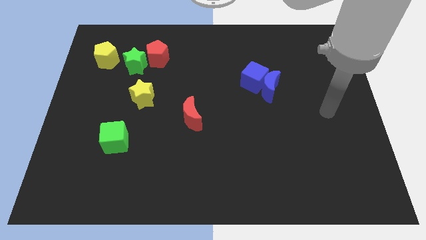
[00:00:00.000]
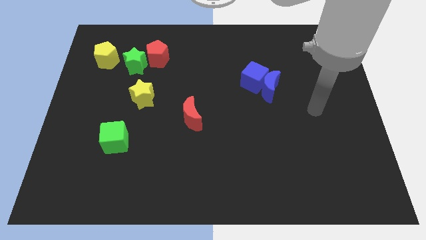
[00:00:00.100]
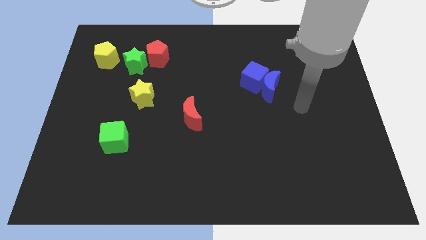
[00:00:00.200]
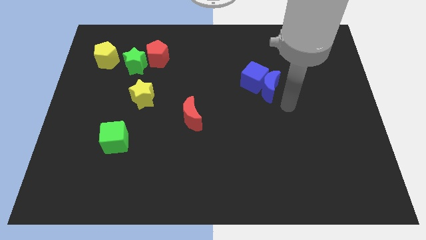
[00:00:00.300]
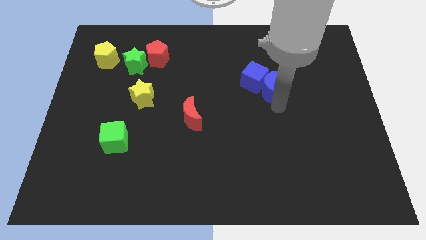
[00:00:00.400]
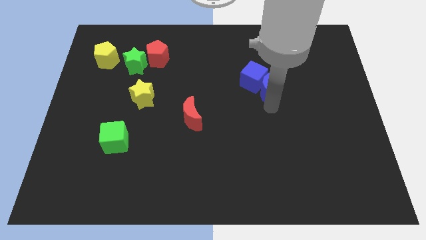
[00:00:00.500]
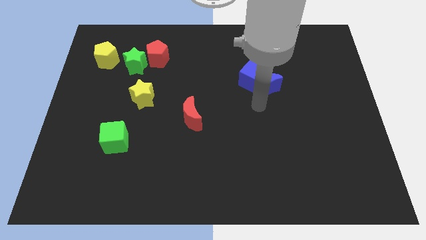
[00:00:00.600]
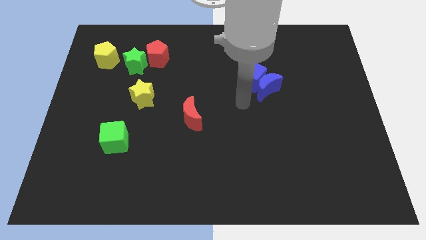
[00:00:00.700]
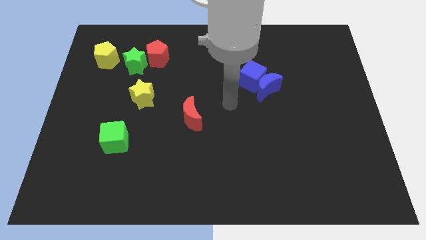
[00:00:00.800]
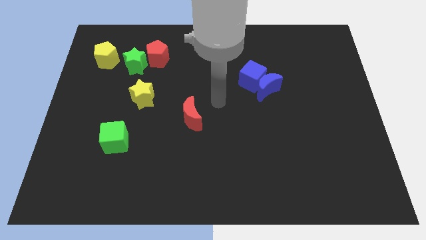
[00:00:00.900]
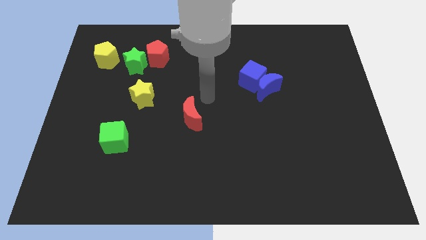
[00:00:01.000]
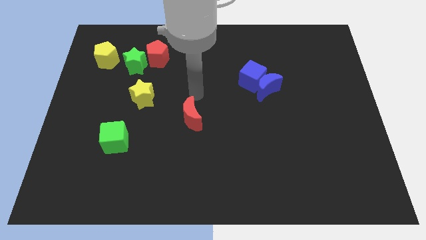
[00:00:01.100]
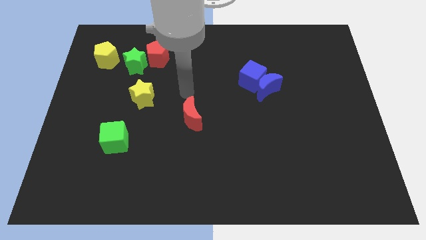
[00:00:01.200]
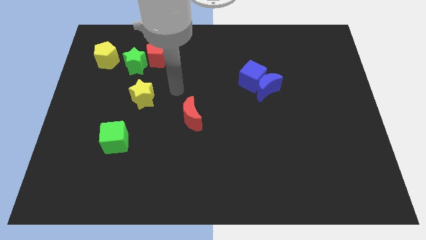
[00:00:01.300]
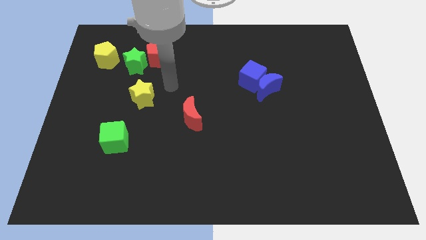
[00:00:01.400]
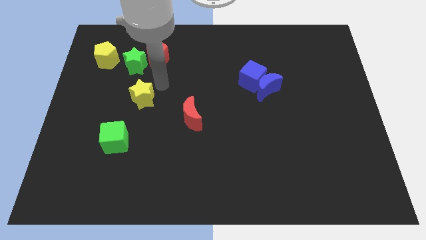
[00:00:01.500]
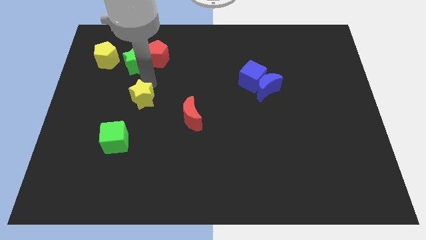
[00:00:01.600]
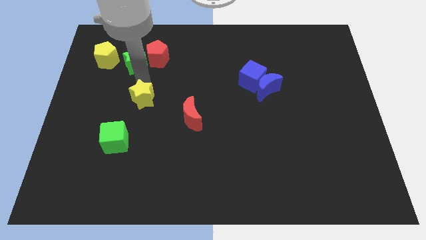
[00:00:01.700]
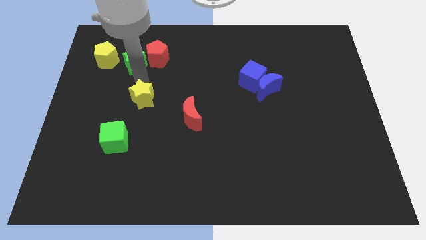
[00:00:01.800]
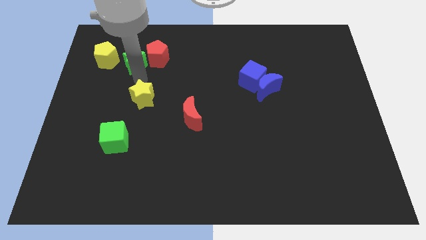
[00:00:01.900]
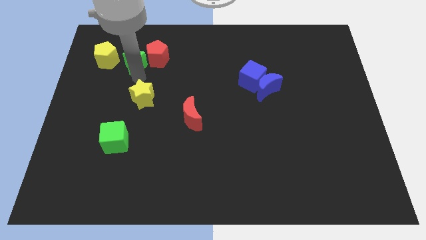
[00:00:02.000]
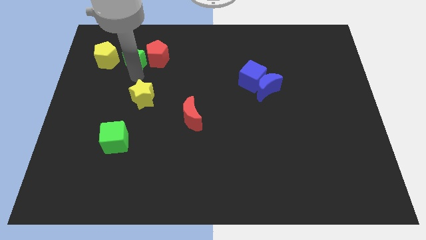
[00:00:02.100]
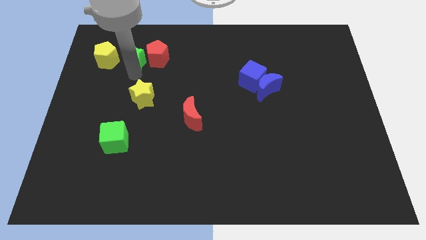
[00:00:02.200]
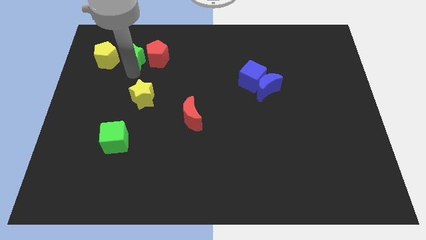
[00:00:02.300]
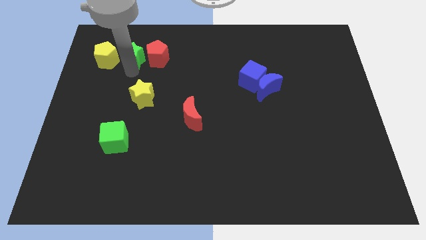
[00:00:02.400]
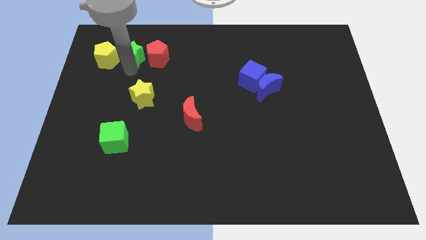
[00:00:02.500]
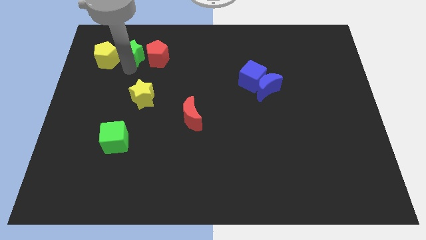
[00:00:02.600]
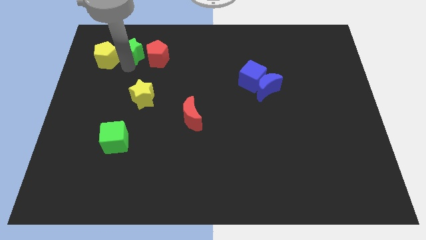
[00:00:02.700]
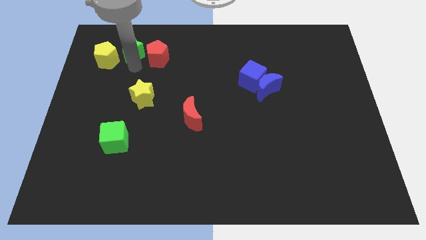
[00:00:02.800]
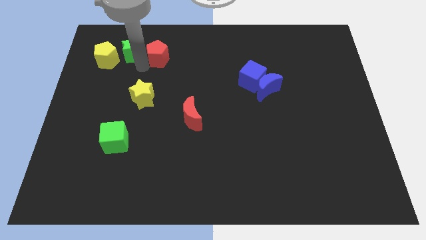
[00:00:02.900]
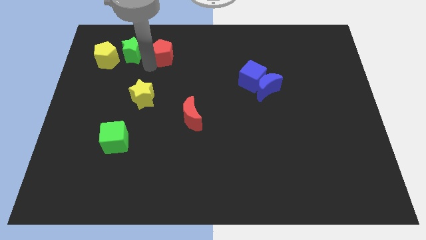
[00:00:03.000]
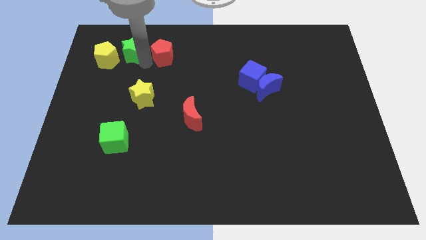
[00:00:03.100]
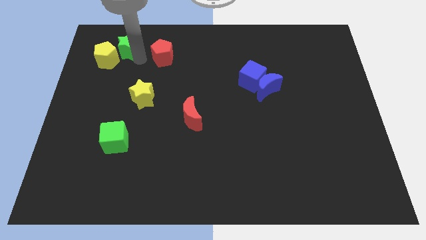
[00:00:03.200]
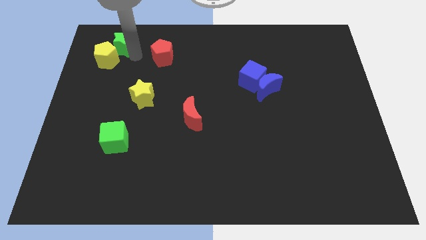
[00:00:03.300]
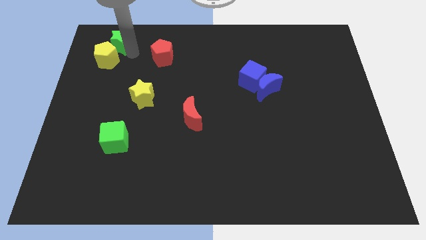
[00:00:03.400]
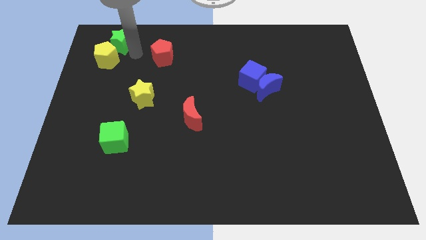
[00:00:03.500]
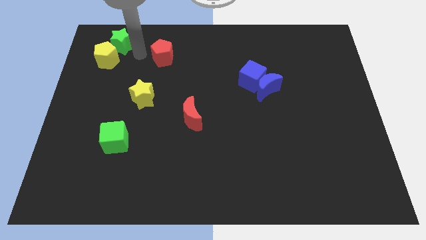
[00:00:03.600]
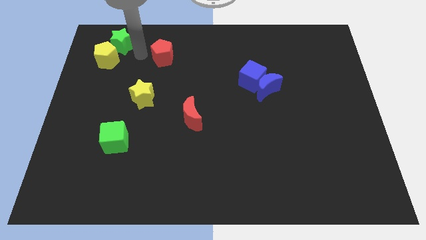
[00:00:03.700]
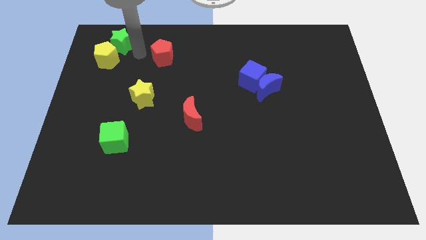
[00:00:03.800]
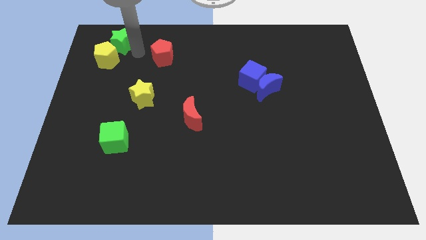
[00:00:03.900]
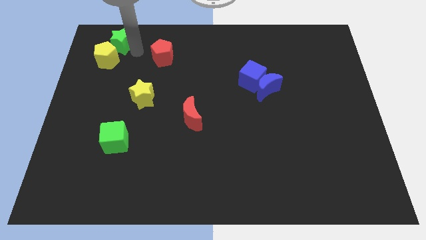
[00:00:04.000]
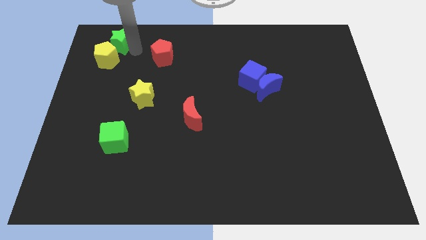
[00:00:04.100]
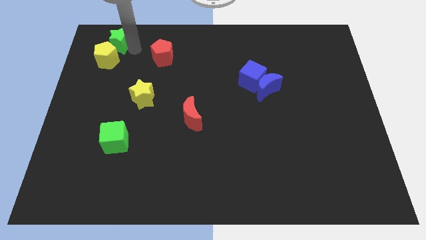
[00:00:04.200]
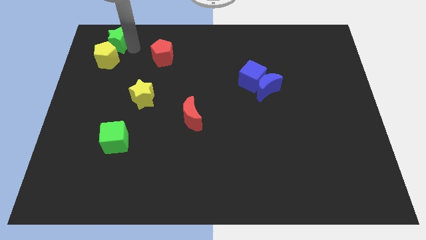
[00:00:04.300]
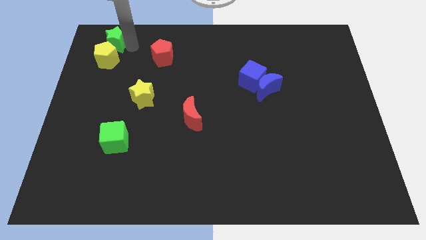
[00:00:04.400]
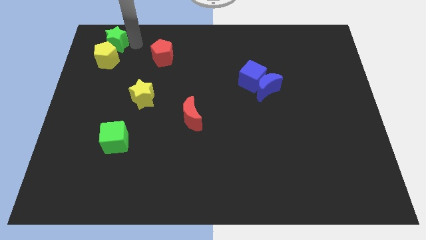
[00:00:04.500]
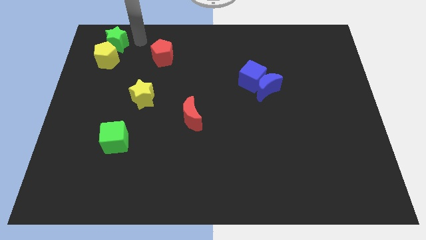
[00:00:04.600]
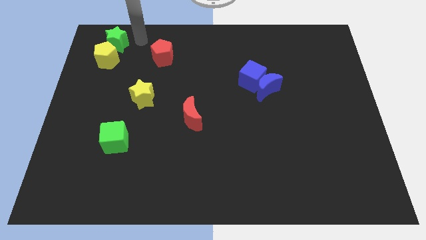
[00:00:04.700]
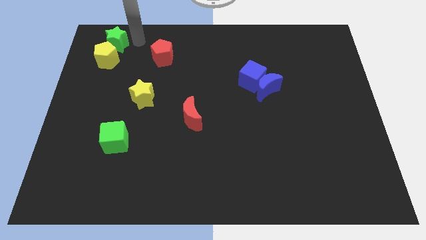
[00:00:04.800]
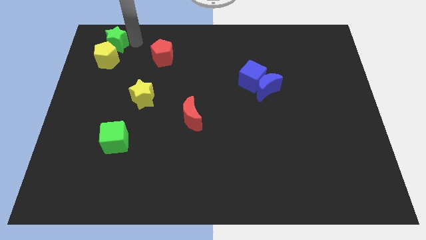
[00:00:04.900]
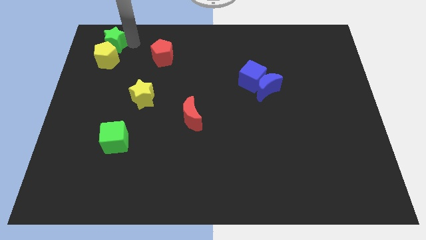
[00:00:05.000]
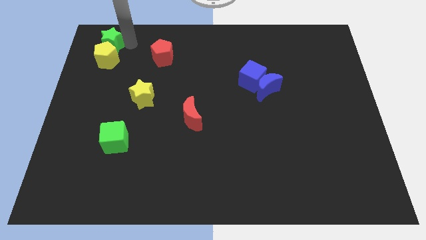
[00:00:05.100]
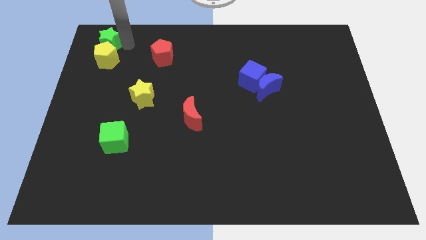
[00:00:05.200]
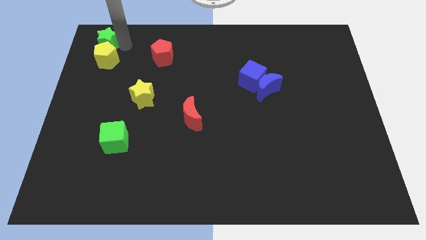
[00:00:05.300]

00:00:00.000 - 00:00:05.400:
push the green star to the top left of the board

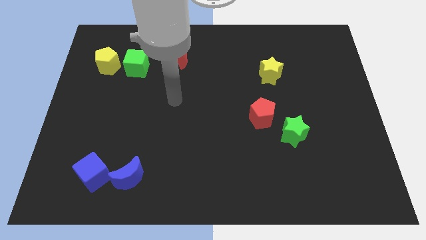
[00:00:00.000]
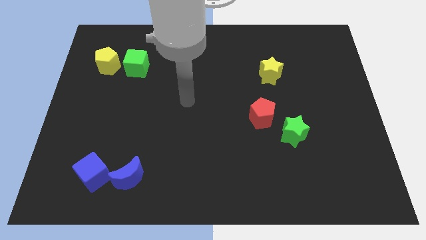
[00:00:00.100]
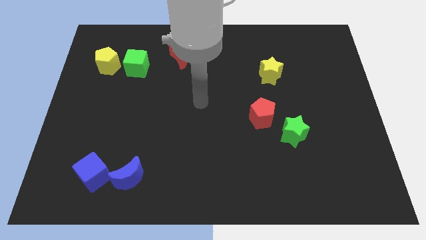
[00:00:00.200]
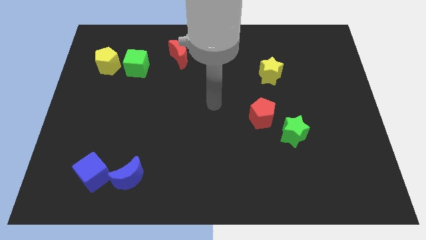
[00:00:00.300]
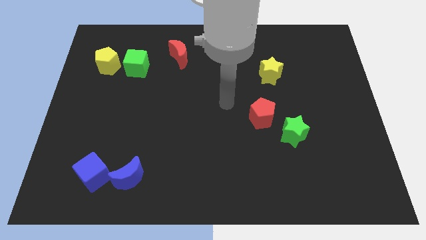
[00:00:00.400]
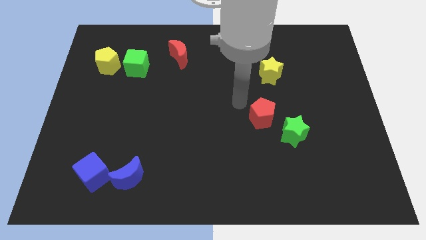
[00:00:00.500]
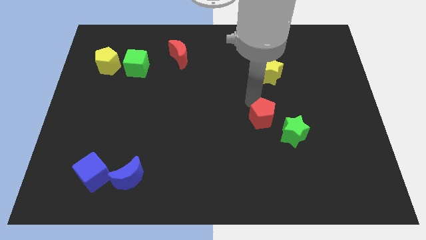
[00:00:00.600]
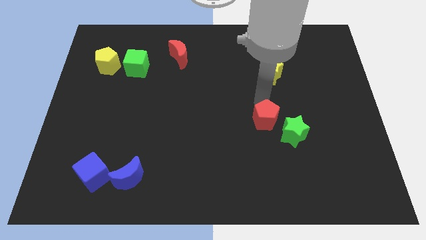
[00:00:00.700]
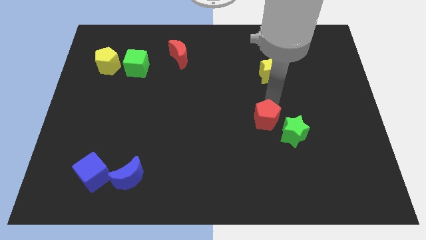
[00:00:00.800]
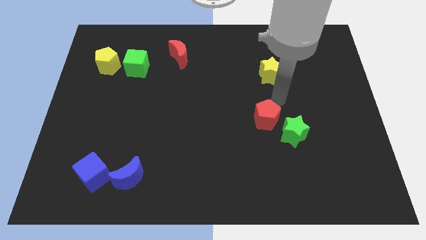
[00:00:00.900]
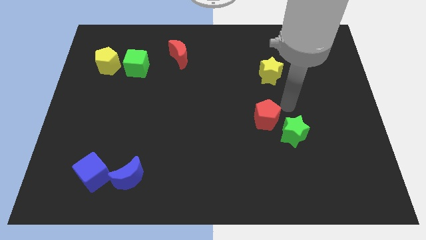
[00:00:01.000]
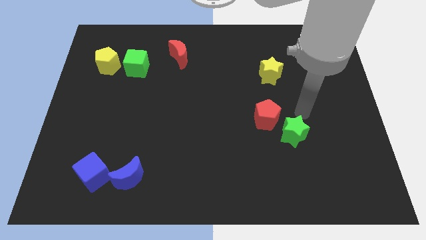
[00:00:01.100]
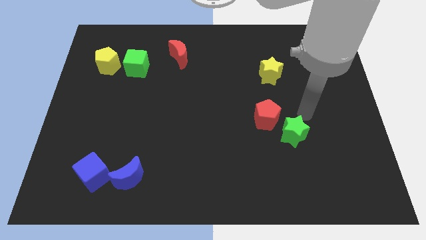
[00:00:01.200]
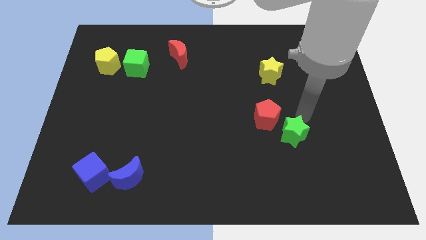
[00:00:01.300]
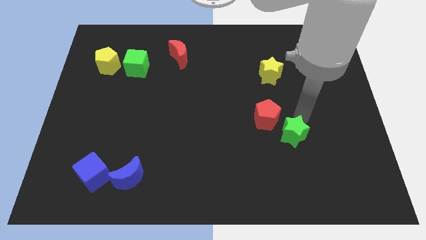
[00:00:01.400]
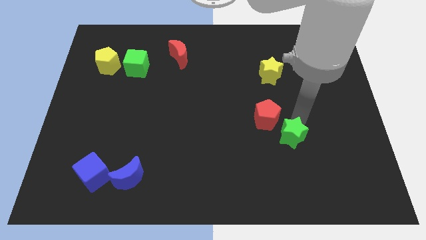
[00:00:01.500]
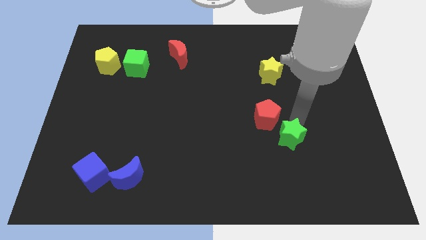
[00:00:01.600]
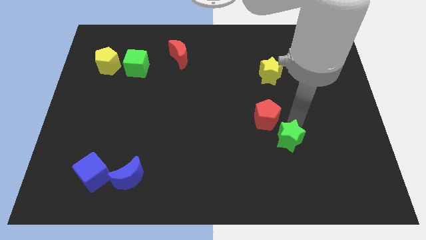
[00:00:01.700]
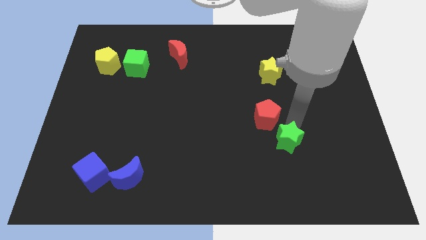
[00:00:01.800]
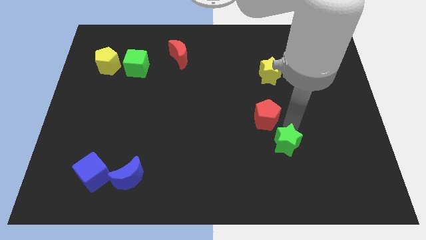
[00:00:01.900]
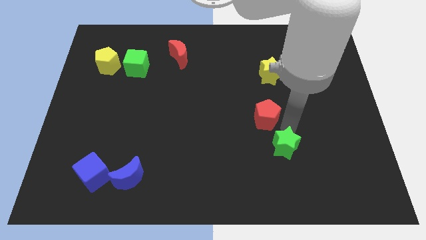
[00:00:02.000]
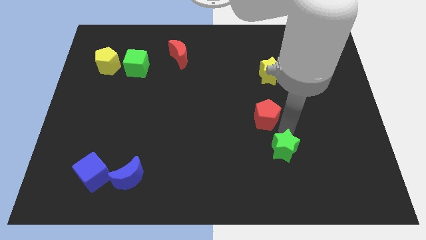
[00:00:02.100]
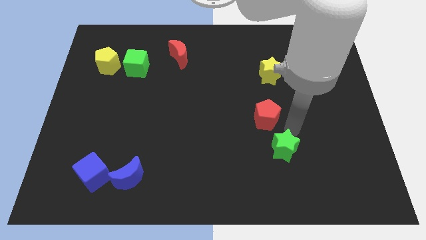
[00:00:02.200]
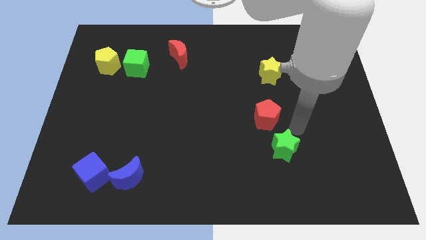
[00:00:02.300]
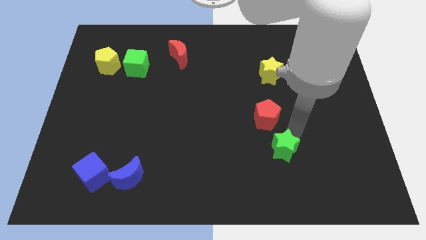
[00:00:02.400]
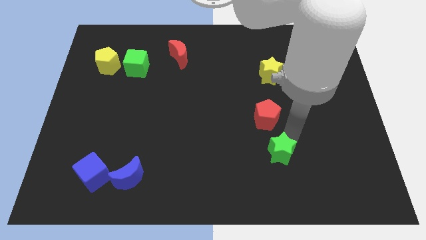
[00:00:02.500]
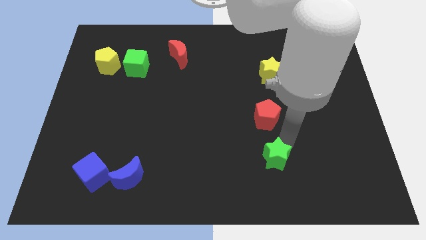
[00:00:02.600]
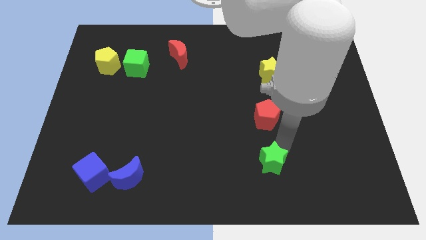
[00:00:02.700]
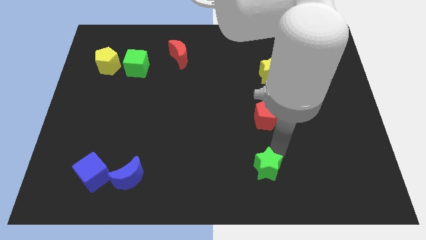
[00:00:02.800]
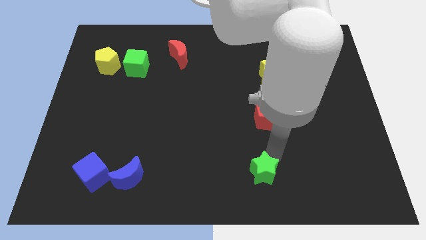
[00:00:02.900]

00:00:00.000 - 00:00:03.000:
push the green star to the bottom side
